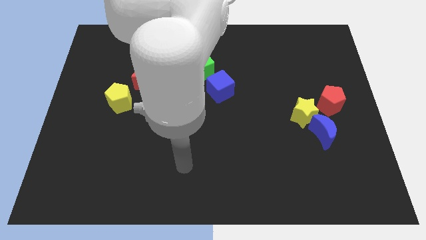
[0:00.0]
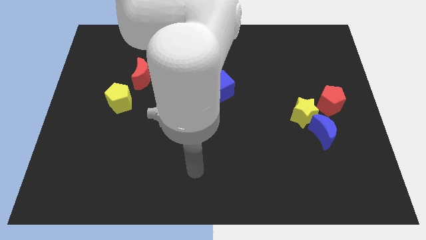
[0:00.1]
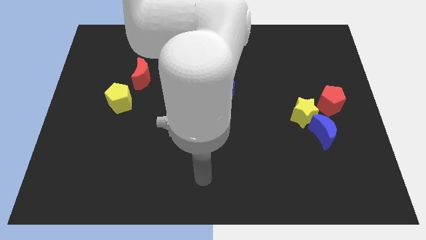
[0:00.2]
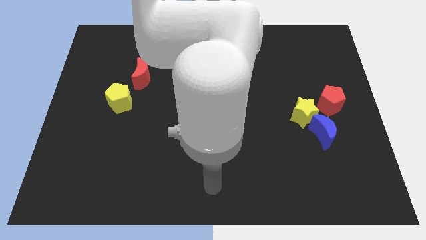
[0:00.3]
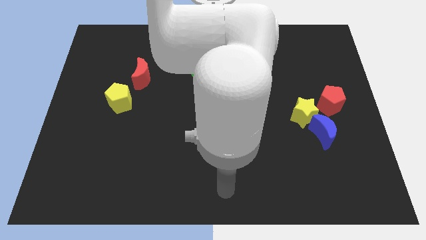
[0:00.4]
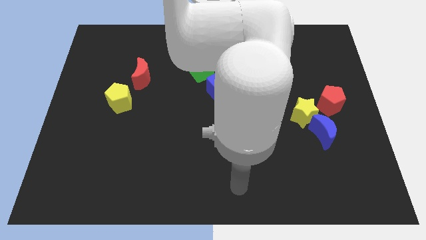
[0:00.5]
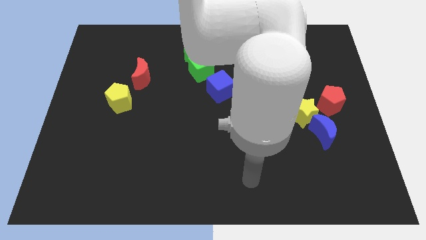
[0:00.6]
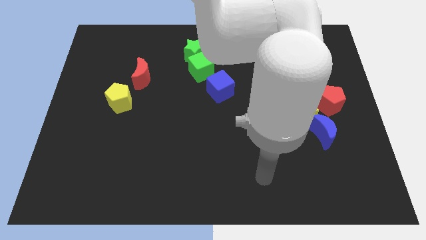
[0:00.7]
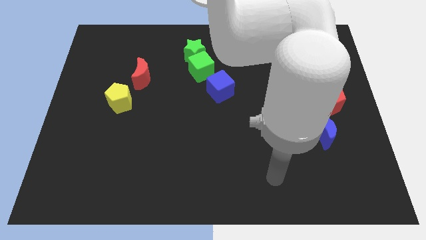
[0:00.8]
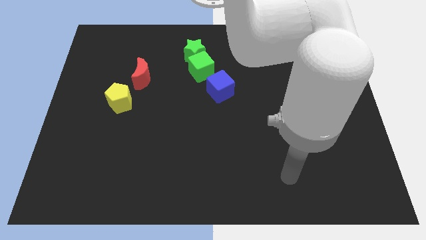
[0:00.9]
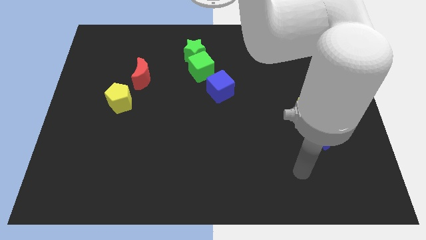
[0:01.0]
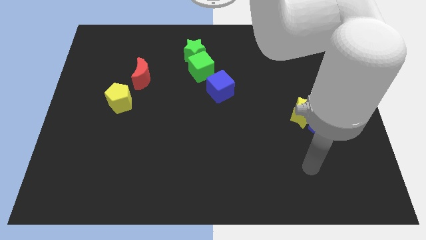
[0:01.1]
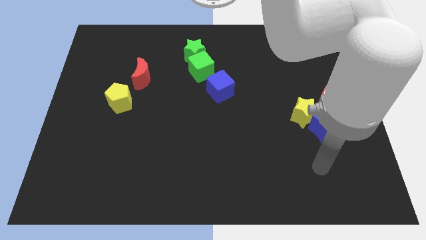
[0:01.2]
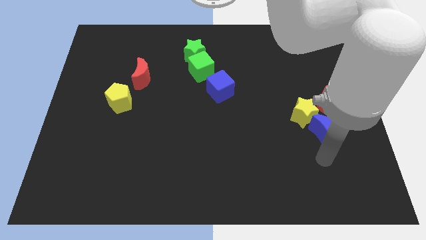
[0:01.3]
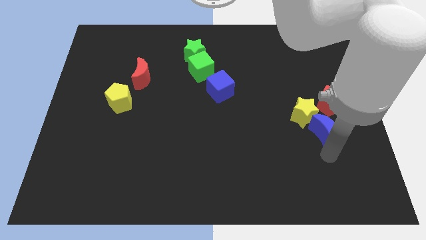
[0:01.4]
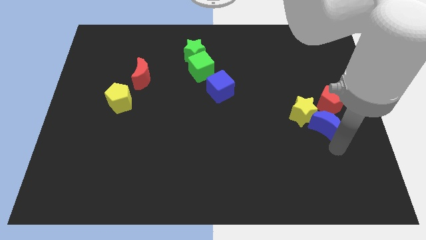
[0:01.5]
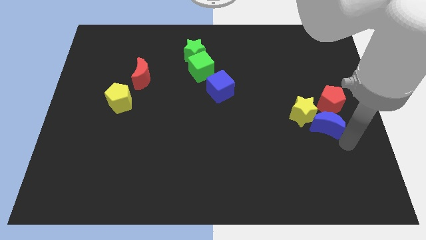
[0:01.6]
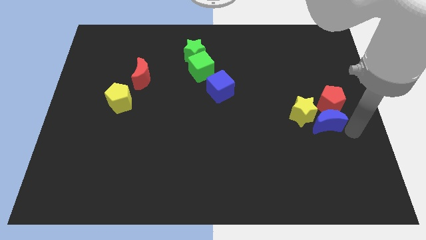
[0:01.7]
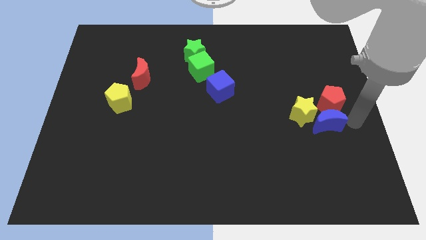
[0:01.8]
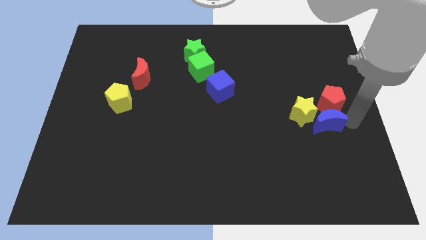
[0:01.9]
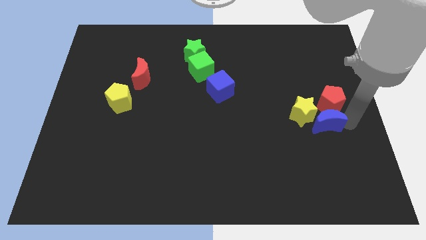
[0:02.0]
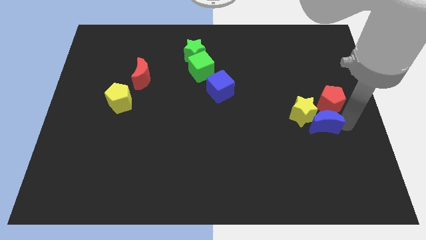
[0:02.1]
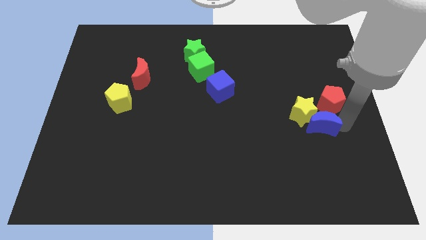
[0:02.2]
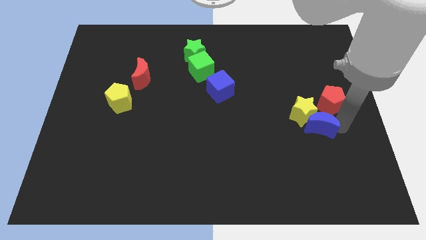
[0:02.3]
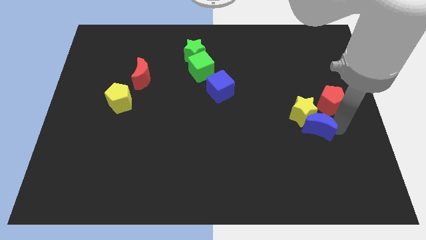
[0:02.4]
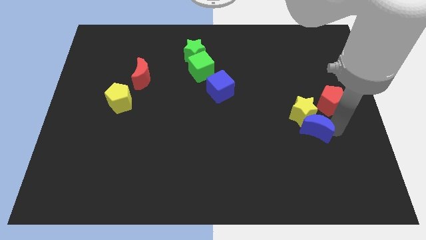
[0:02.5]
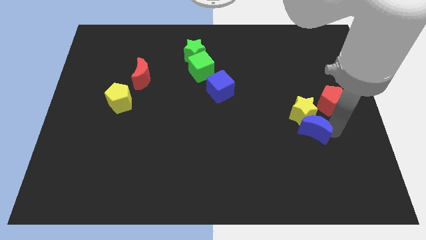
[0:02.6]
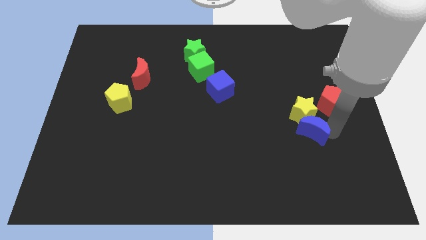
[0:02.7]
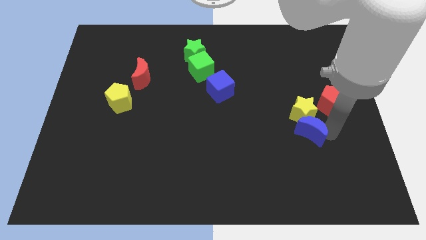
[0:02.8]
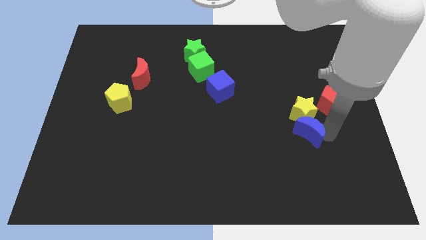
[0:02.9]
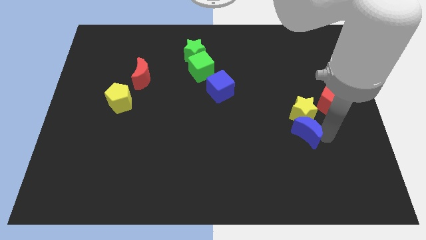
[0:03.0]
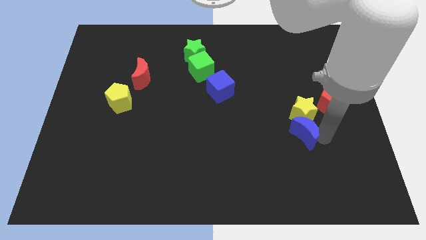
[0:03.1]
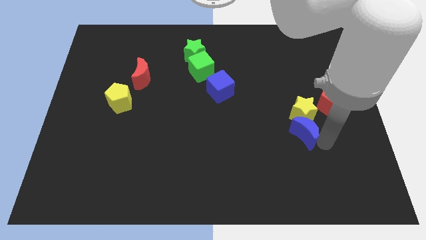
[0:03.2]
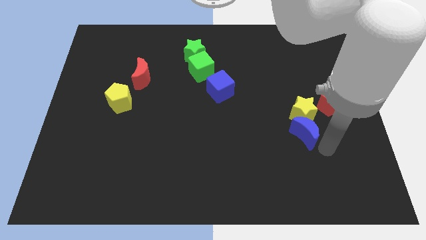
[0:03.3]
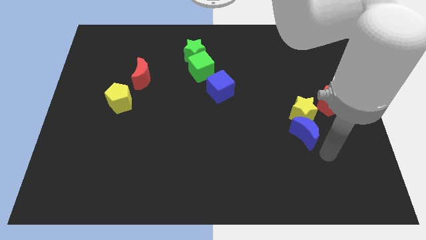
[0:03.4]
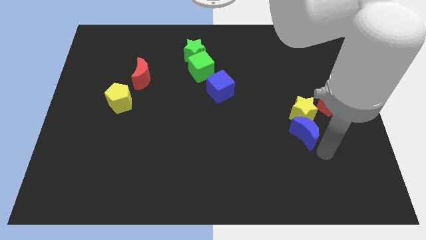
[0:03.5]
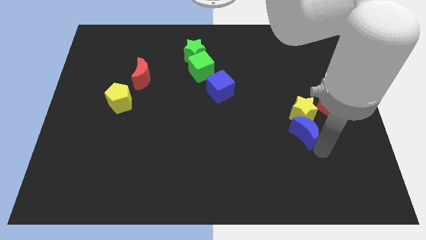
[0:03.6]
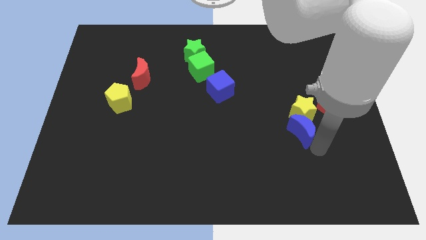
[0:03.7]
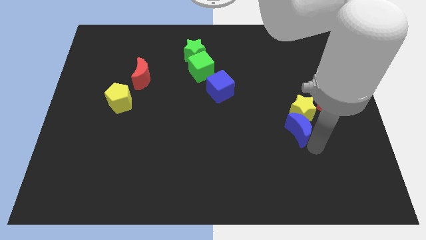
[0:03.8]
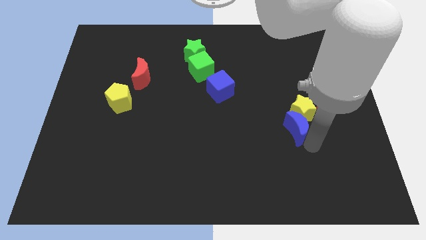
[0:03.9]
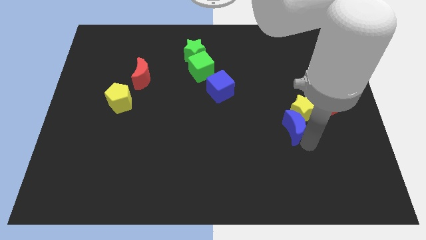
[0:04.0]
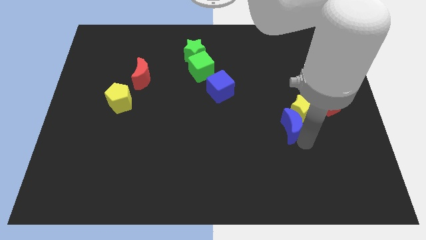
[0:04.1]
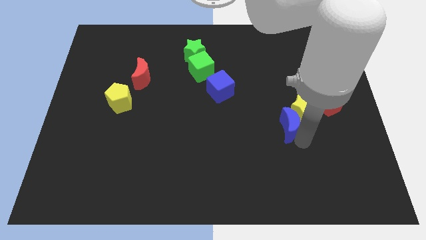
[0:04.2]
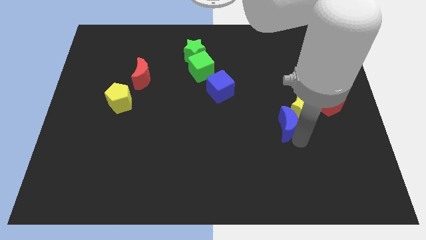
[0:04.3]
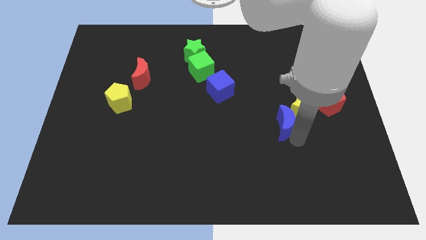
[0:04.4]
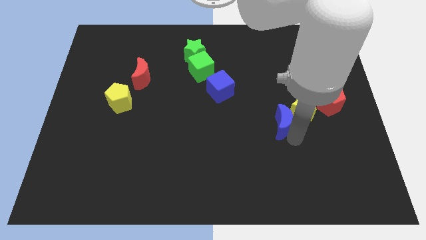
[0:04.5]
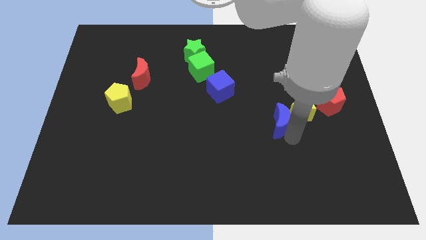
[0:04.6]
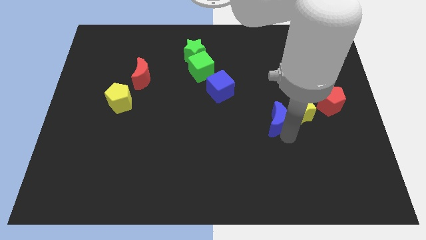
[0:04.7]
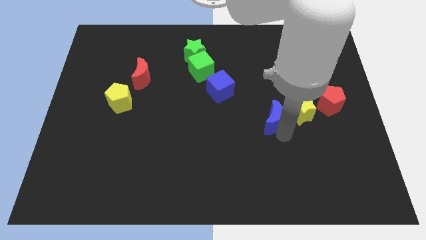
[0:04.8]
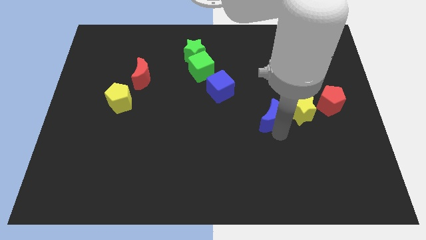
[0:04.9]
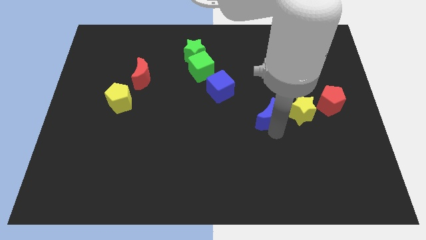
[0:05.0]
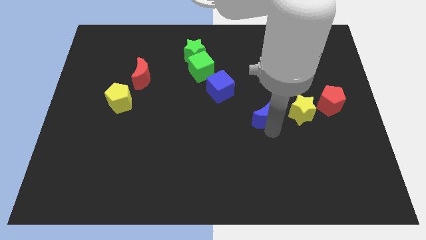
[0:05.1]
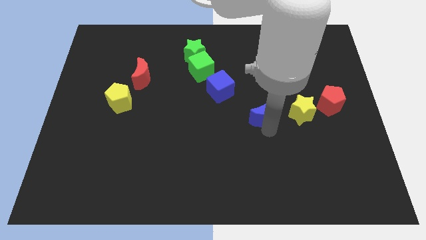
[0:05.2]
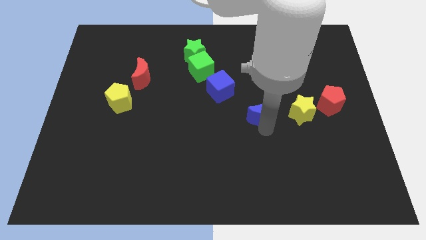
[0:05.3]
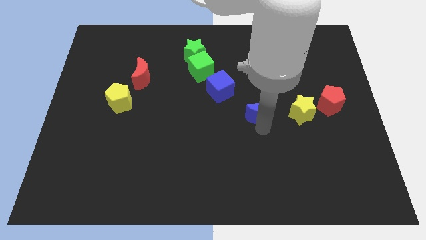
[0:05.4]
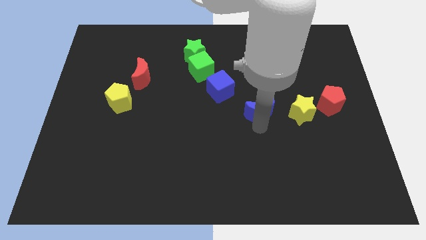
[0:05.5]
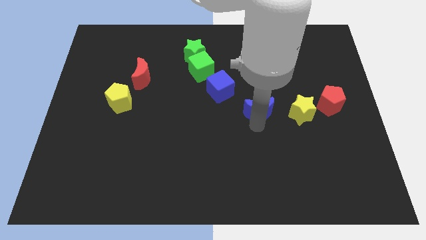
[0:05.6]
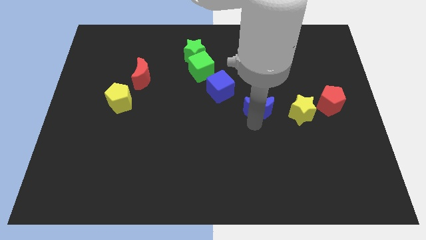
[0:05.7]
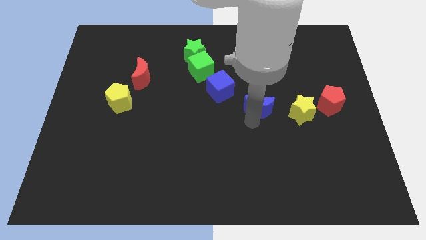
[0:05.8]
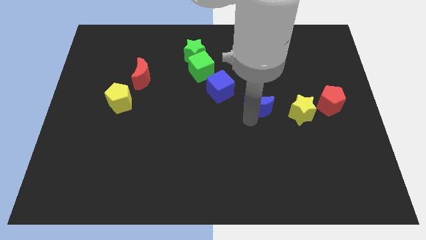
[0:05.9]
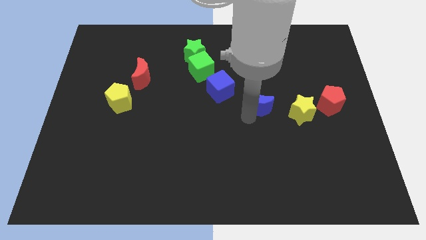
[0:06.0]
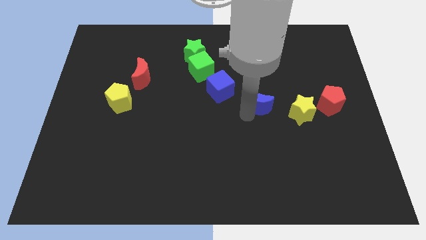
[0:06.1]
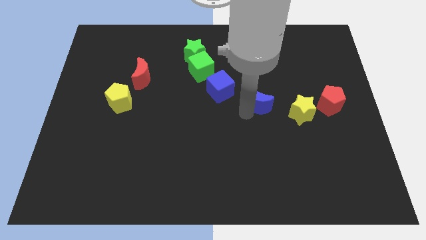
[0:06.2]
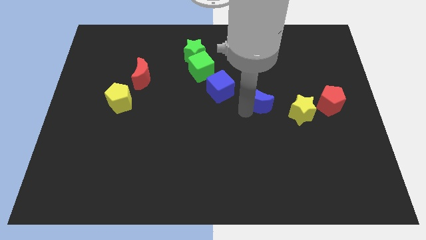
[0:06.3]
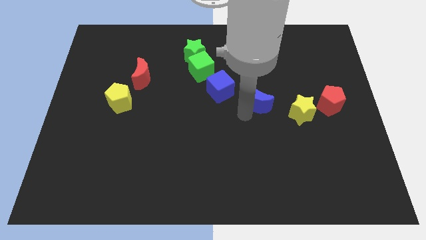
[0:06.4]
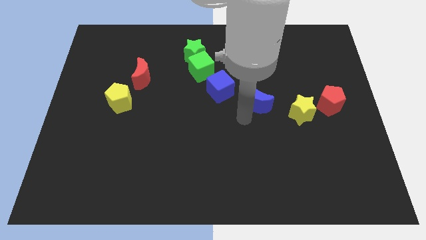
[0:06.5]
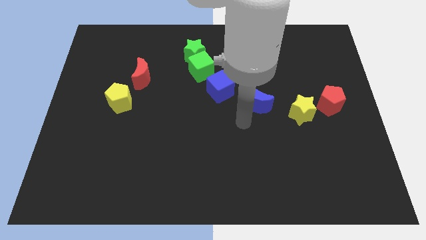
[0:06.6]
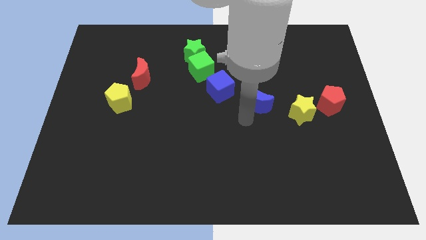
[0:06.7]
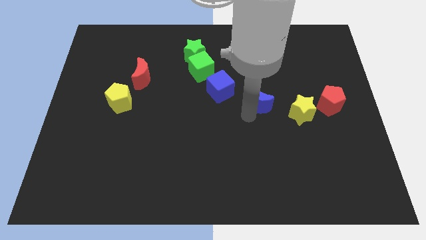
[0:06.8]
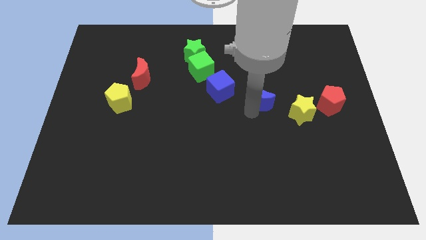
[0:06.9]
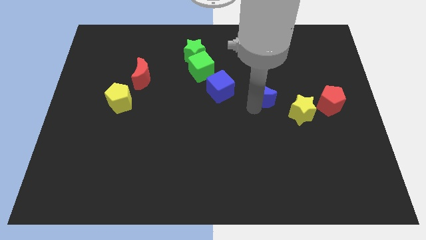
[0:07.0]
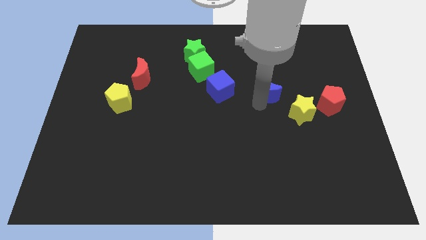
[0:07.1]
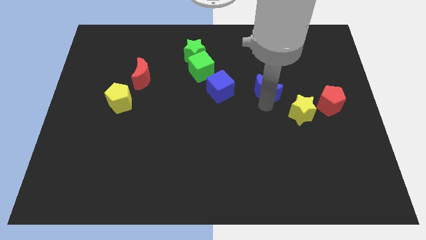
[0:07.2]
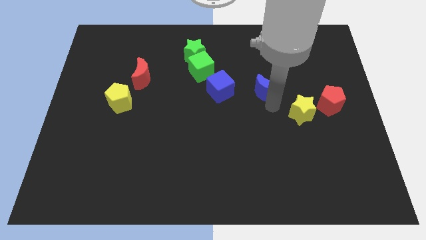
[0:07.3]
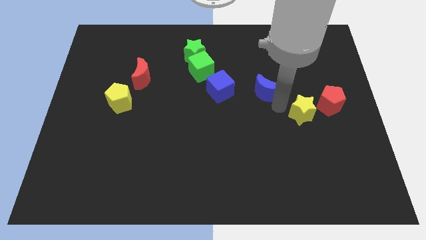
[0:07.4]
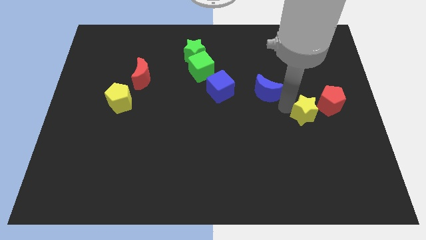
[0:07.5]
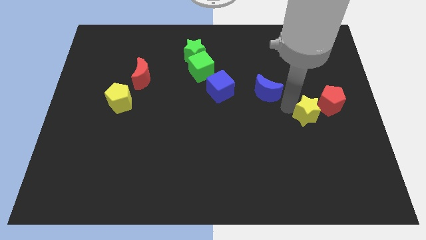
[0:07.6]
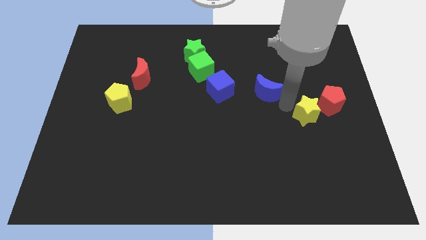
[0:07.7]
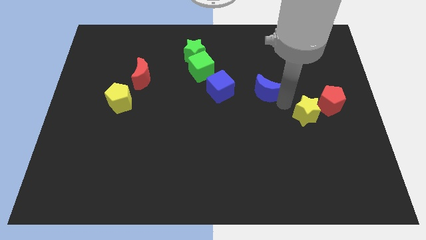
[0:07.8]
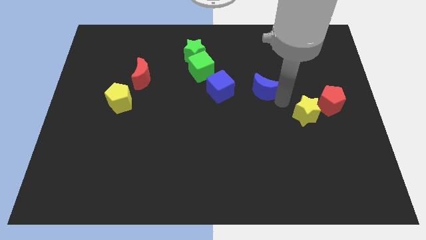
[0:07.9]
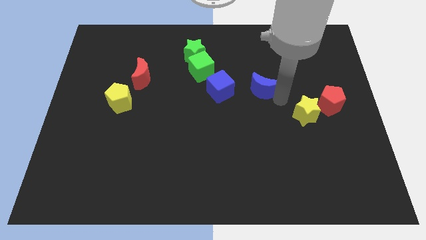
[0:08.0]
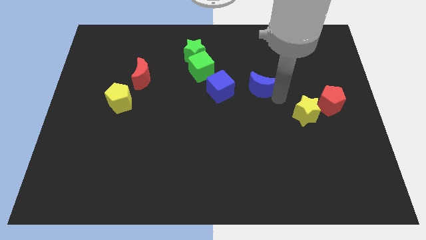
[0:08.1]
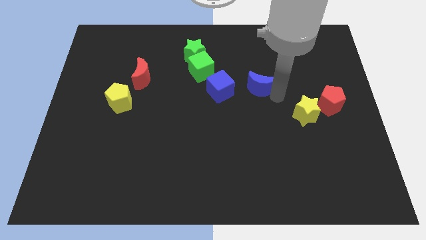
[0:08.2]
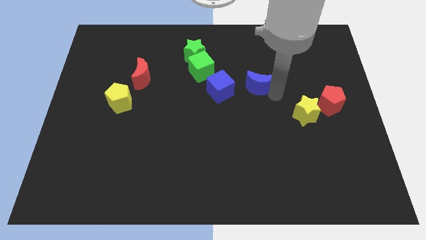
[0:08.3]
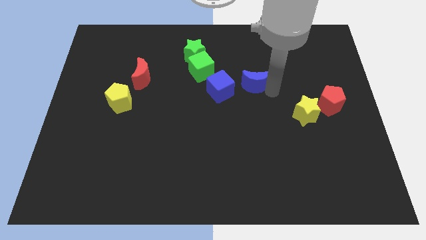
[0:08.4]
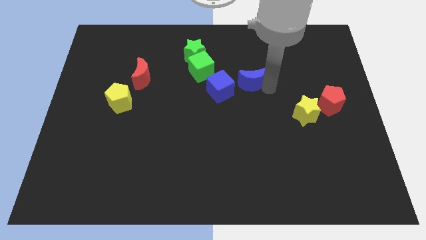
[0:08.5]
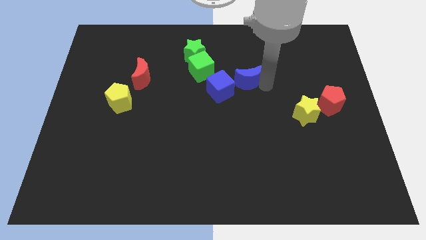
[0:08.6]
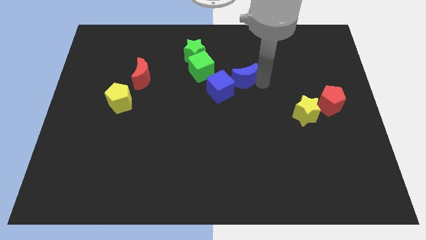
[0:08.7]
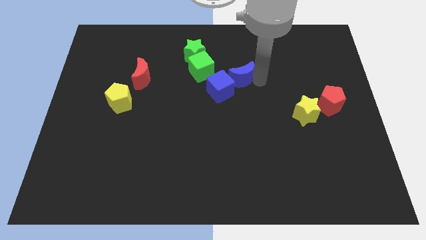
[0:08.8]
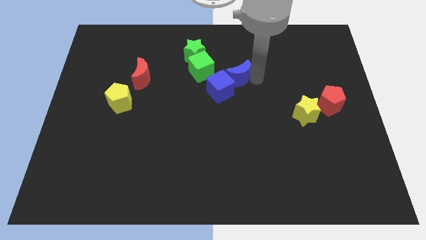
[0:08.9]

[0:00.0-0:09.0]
move the blue moon to the top side of the blue cube
